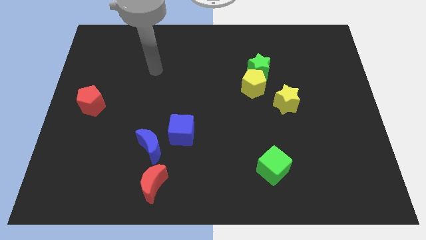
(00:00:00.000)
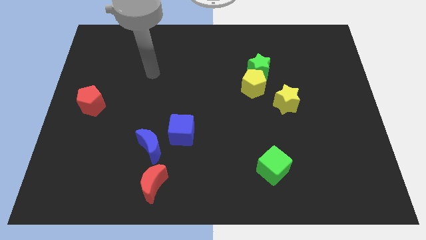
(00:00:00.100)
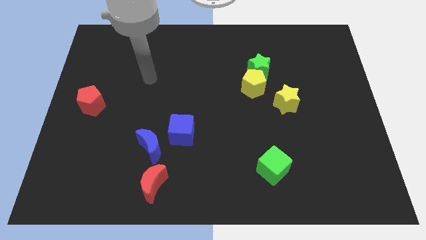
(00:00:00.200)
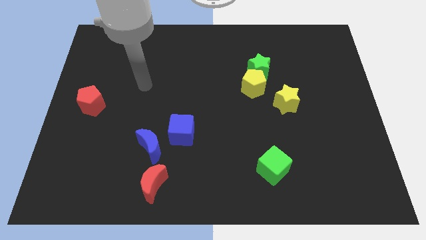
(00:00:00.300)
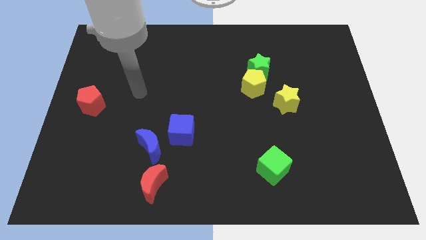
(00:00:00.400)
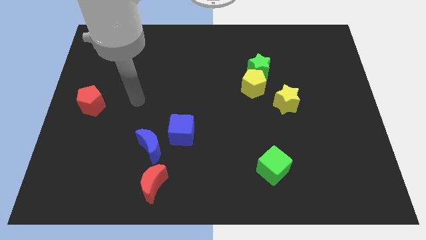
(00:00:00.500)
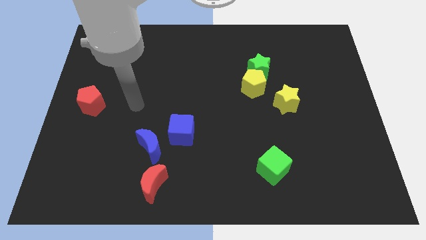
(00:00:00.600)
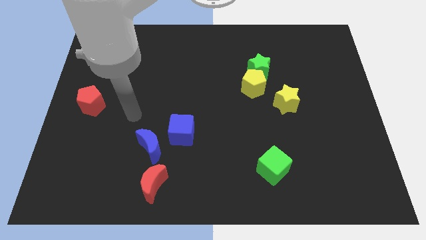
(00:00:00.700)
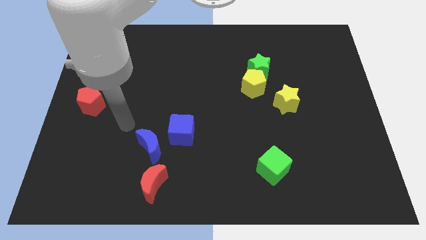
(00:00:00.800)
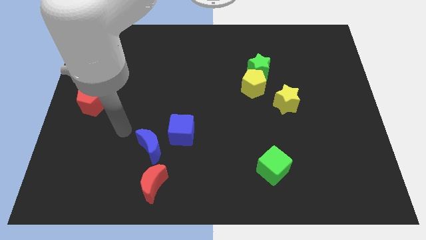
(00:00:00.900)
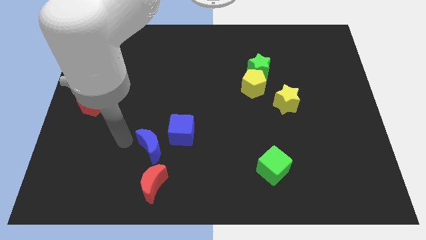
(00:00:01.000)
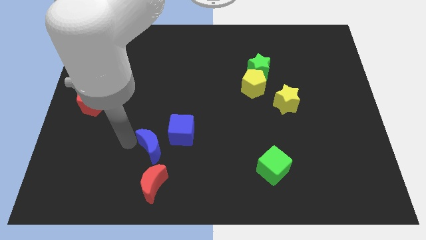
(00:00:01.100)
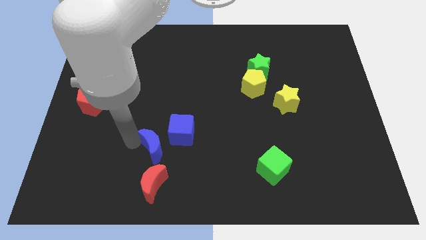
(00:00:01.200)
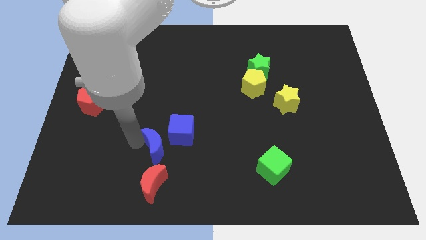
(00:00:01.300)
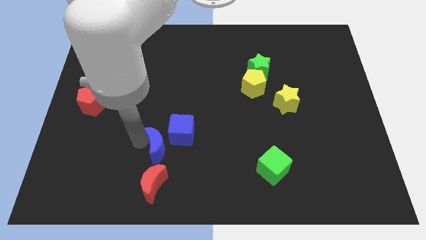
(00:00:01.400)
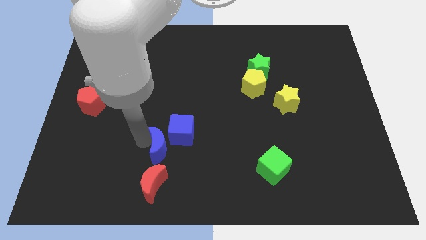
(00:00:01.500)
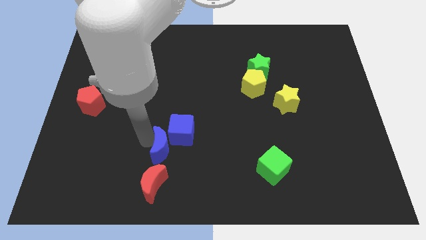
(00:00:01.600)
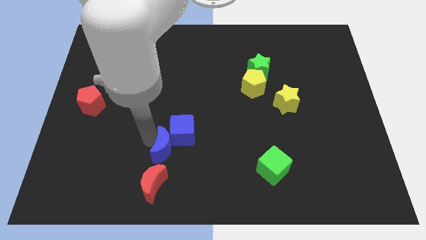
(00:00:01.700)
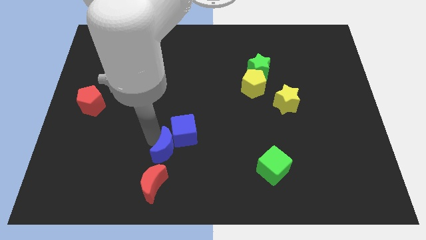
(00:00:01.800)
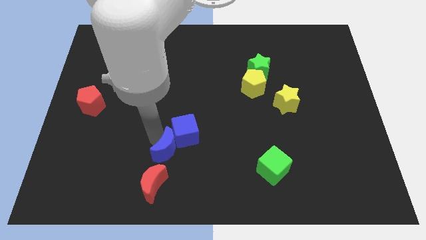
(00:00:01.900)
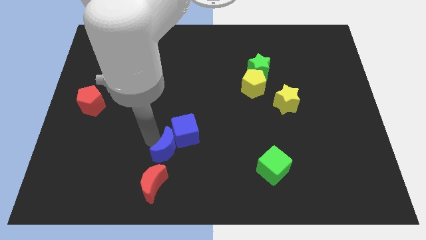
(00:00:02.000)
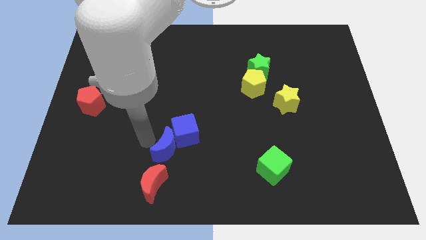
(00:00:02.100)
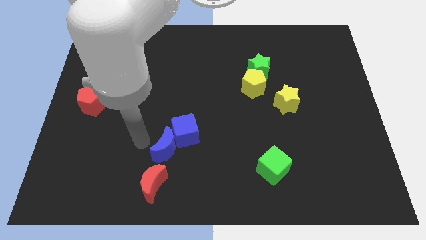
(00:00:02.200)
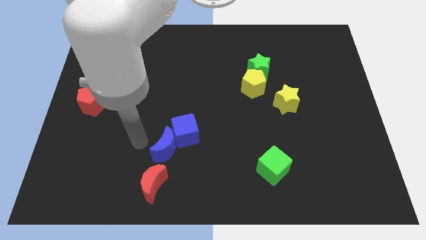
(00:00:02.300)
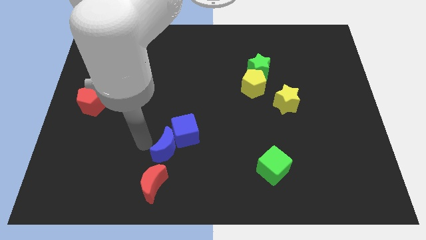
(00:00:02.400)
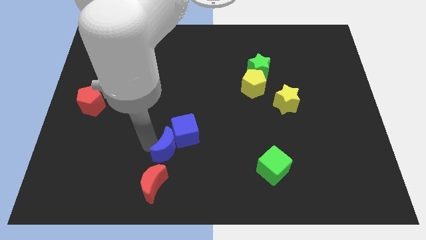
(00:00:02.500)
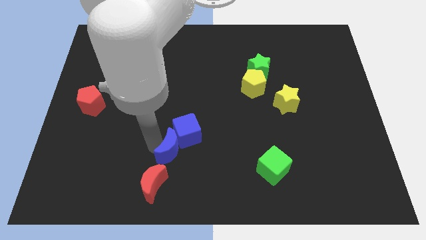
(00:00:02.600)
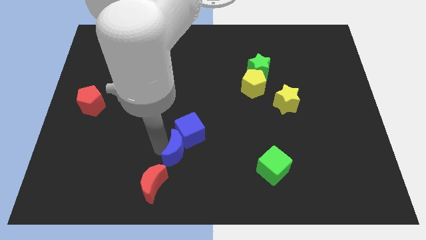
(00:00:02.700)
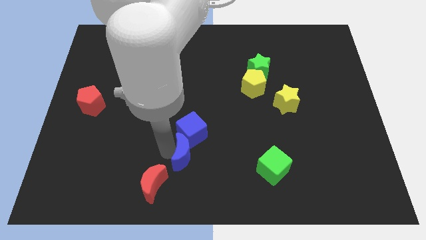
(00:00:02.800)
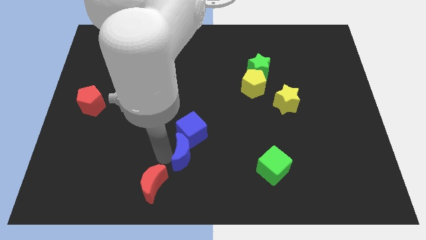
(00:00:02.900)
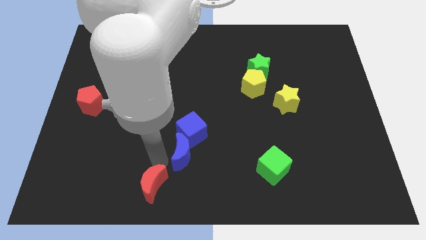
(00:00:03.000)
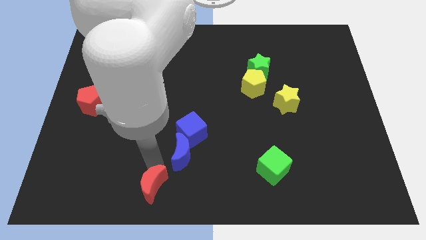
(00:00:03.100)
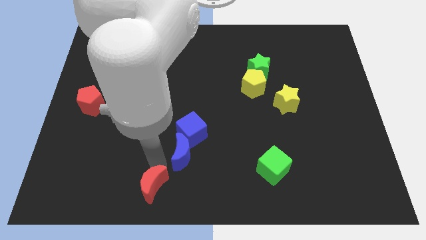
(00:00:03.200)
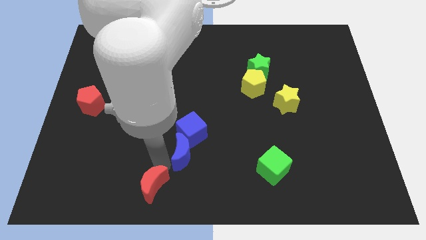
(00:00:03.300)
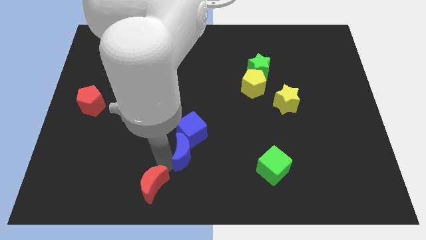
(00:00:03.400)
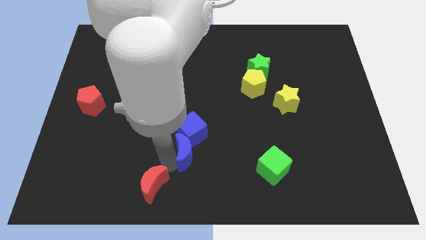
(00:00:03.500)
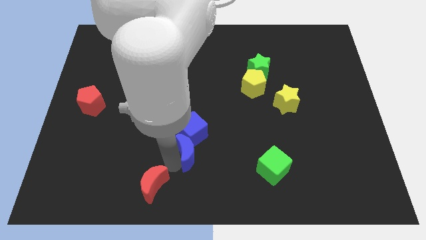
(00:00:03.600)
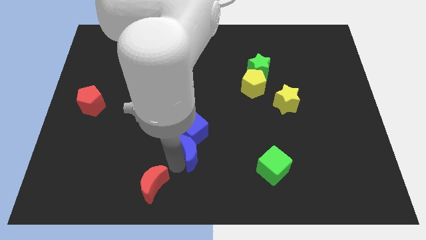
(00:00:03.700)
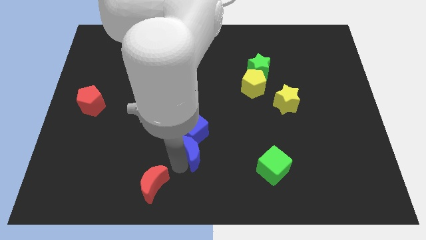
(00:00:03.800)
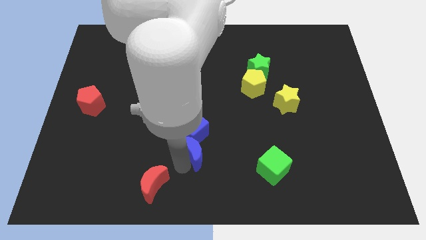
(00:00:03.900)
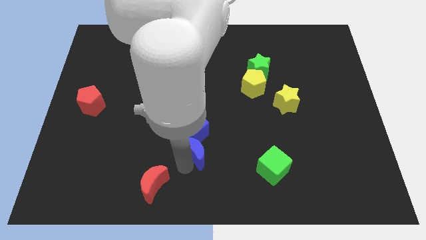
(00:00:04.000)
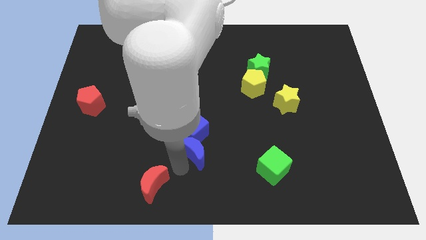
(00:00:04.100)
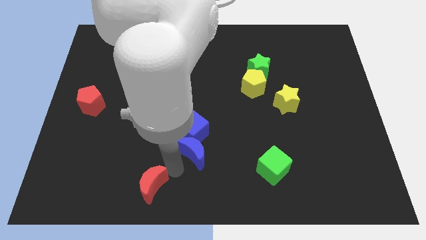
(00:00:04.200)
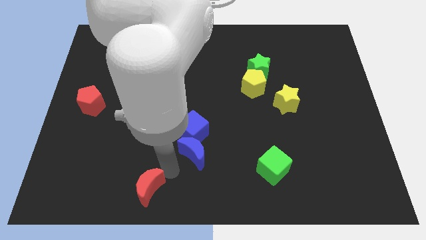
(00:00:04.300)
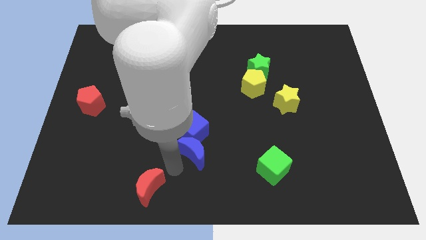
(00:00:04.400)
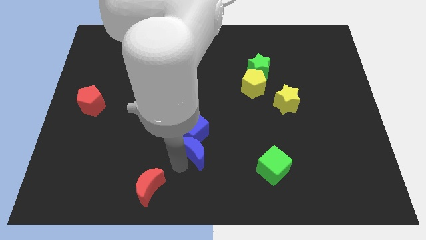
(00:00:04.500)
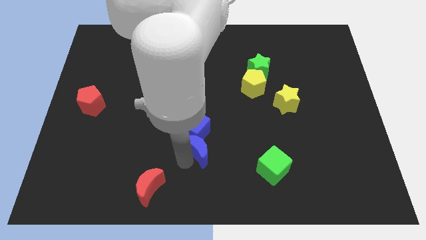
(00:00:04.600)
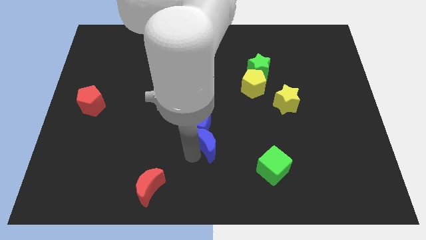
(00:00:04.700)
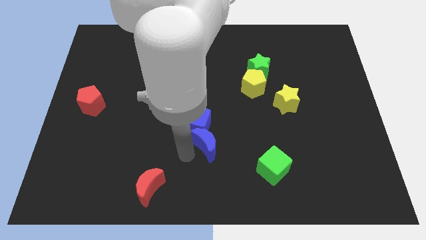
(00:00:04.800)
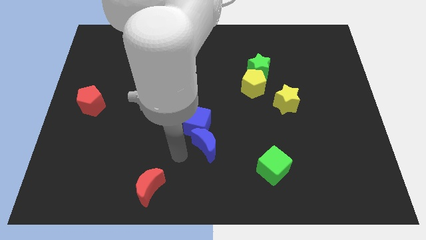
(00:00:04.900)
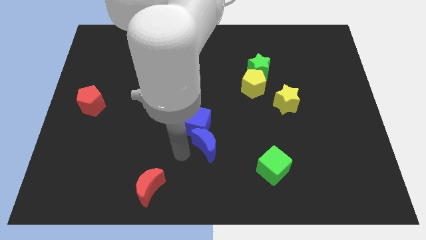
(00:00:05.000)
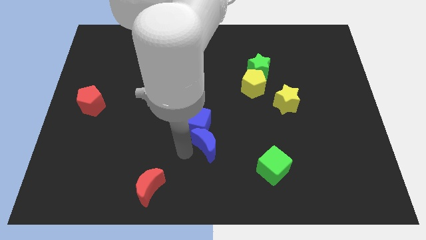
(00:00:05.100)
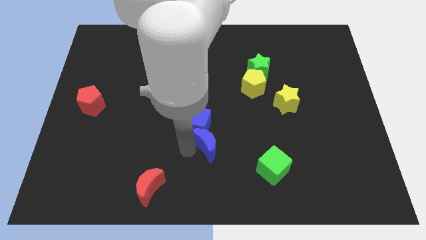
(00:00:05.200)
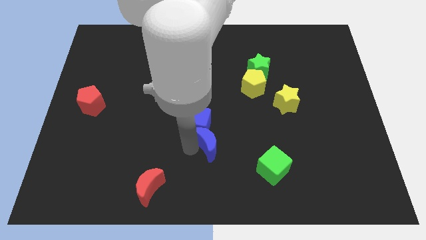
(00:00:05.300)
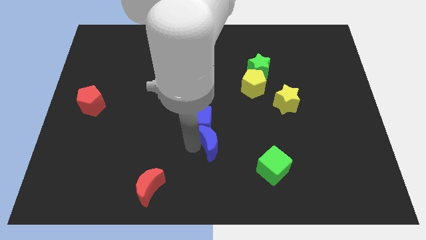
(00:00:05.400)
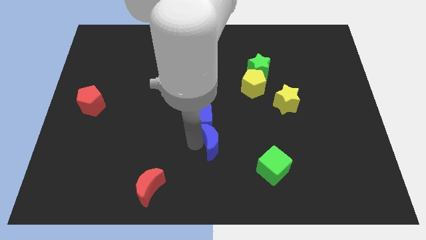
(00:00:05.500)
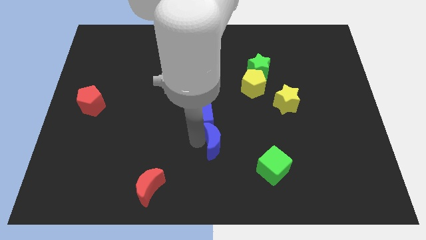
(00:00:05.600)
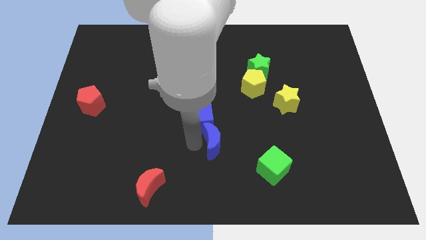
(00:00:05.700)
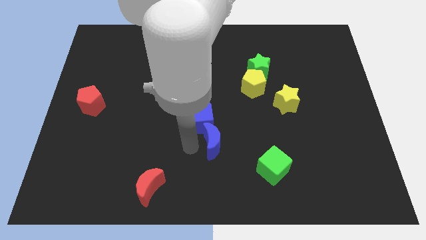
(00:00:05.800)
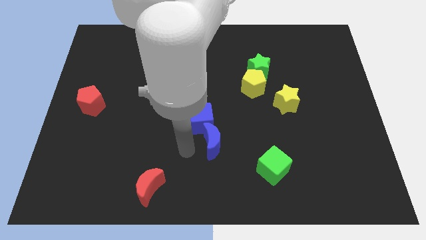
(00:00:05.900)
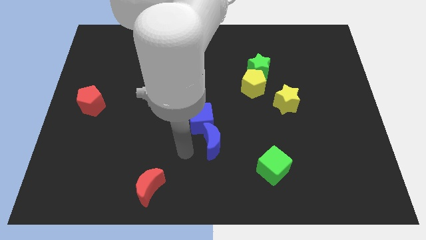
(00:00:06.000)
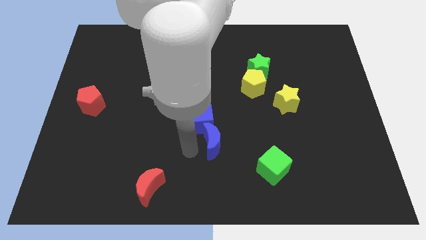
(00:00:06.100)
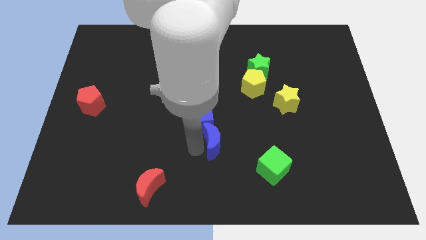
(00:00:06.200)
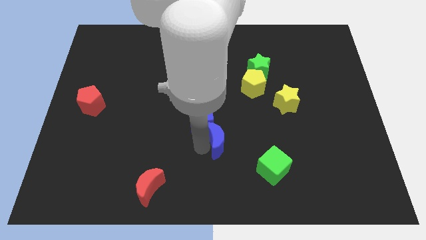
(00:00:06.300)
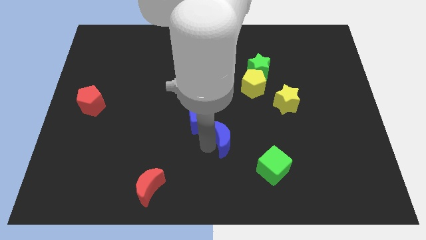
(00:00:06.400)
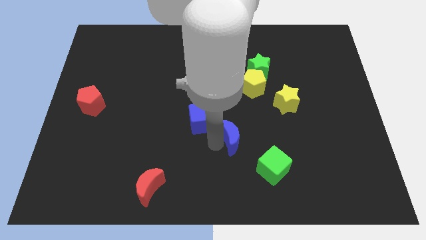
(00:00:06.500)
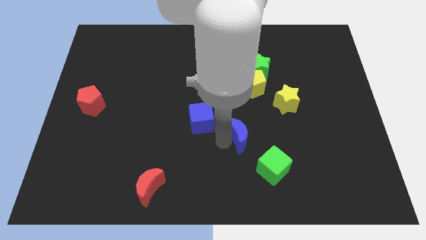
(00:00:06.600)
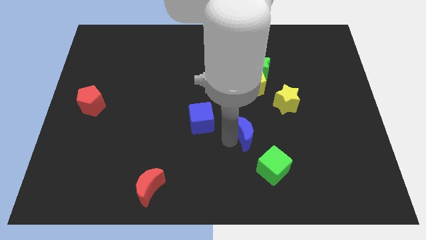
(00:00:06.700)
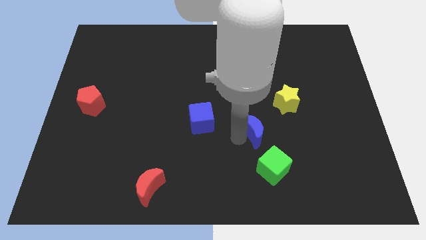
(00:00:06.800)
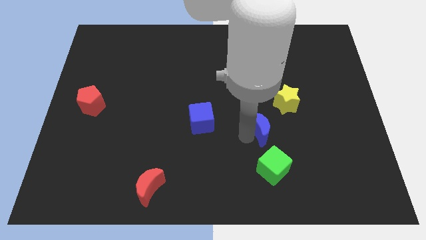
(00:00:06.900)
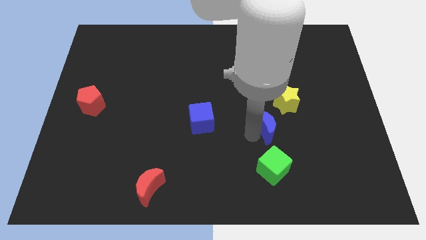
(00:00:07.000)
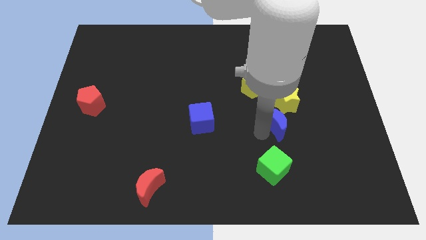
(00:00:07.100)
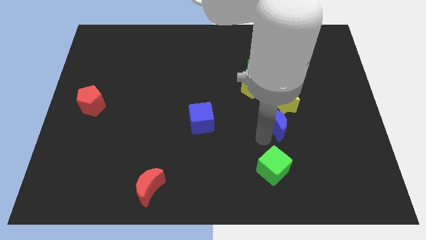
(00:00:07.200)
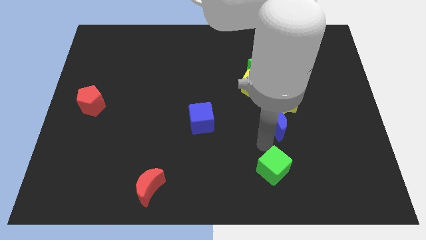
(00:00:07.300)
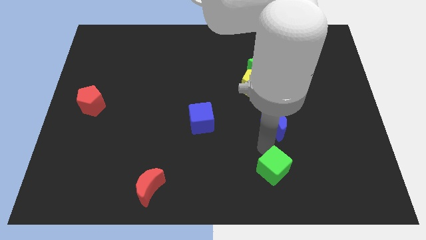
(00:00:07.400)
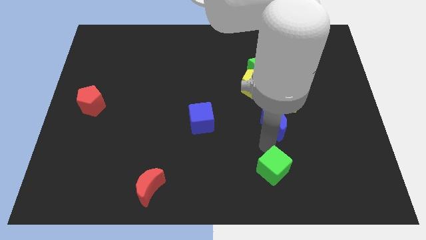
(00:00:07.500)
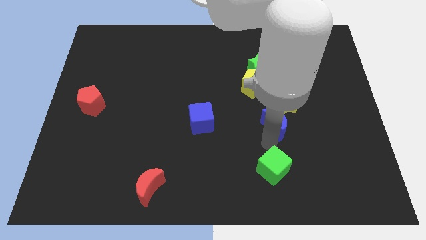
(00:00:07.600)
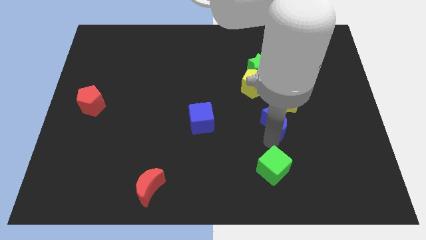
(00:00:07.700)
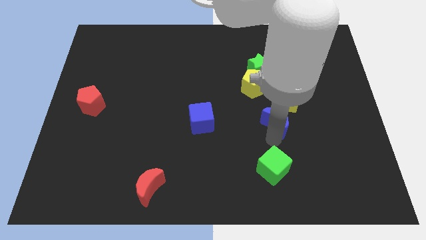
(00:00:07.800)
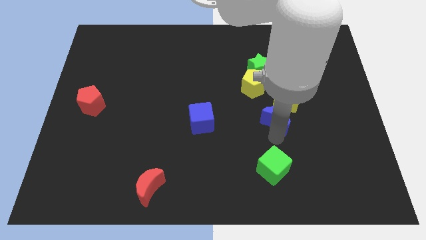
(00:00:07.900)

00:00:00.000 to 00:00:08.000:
push the blue moon close to the yellow star
